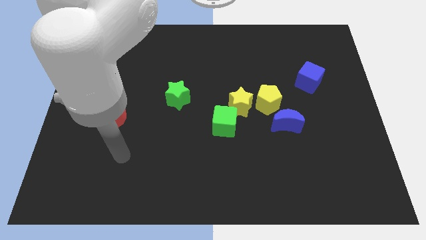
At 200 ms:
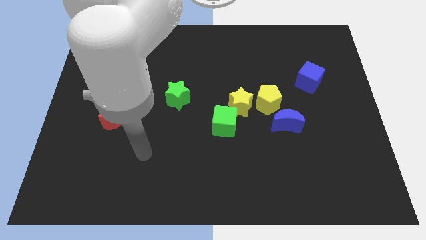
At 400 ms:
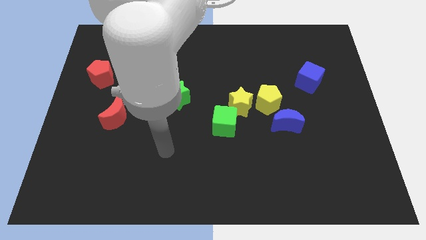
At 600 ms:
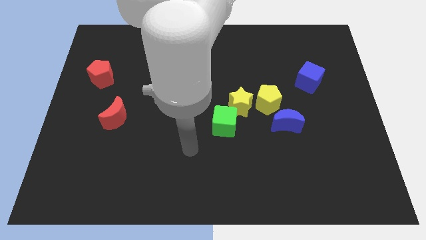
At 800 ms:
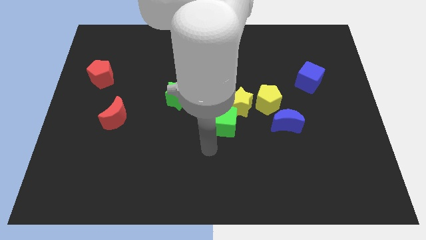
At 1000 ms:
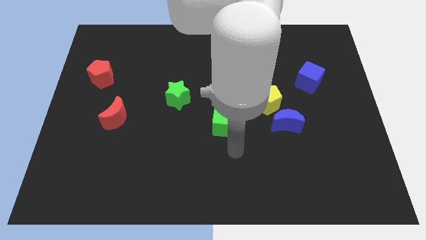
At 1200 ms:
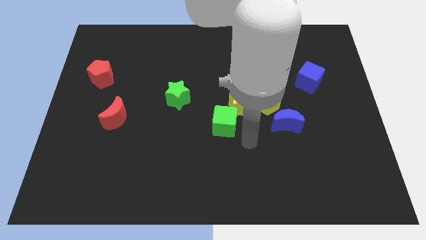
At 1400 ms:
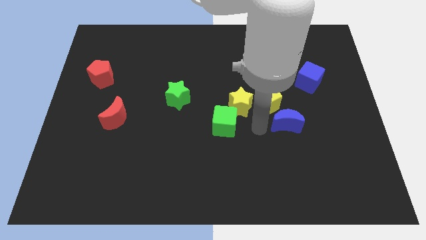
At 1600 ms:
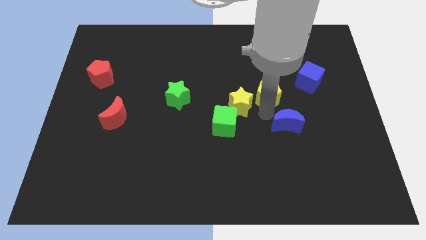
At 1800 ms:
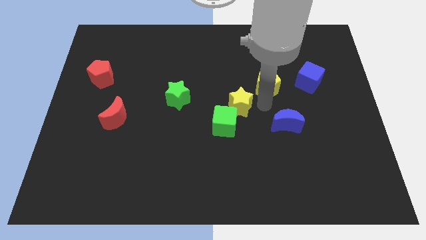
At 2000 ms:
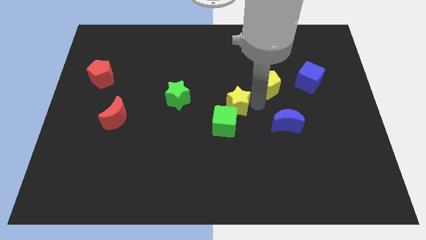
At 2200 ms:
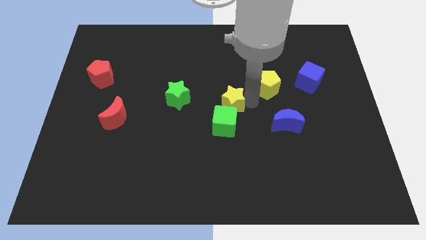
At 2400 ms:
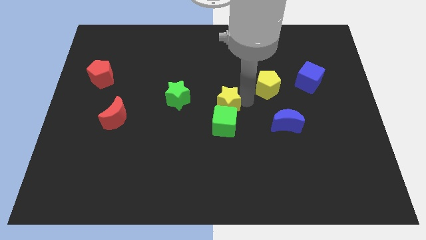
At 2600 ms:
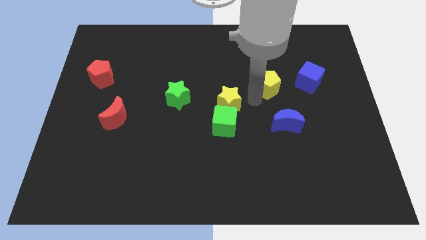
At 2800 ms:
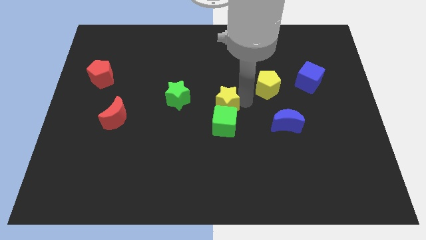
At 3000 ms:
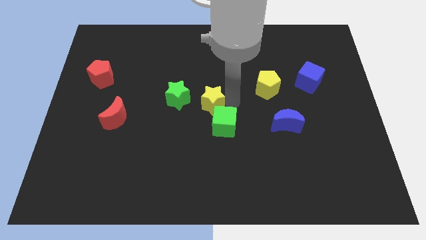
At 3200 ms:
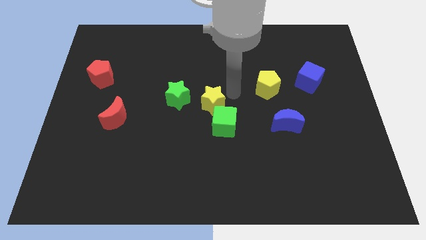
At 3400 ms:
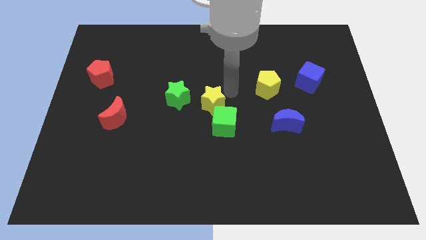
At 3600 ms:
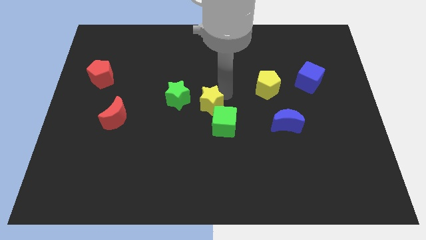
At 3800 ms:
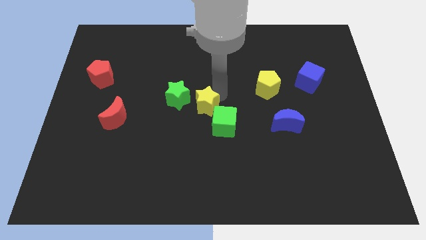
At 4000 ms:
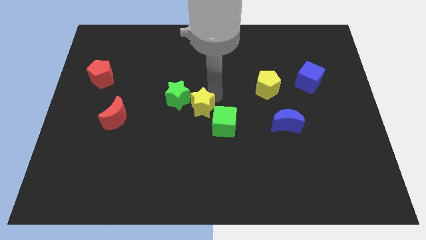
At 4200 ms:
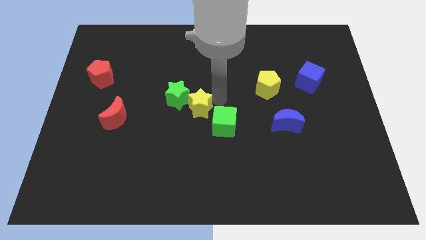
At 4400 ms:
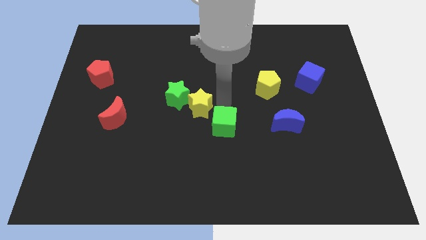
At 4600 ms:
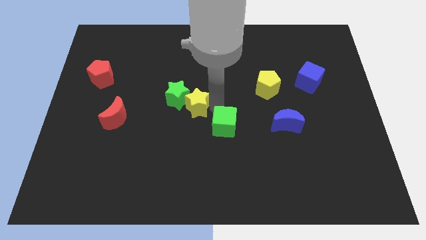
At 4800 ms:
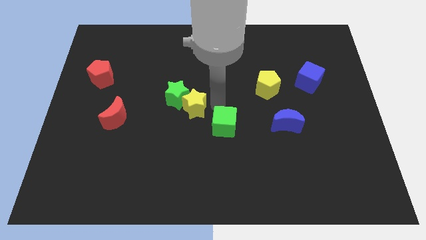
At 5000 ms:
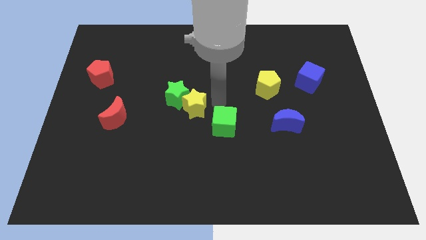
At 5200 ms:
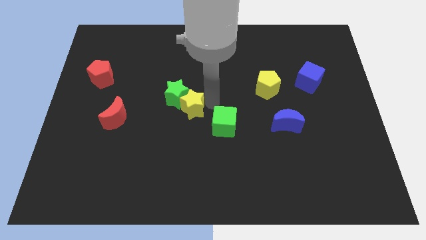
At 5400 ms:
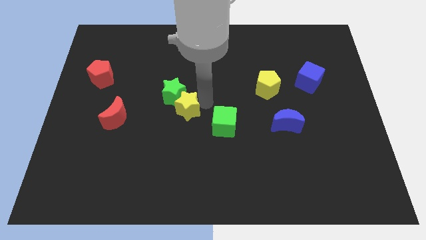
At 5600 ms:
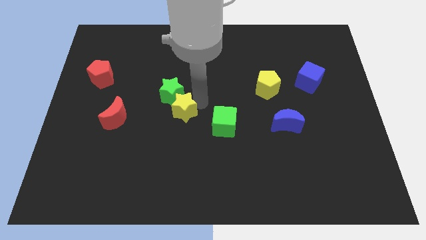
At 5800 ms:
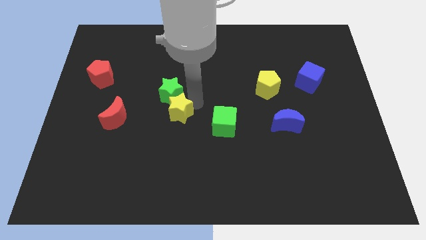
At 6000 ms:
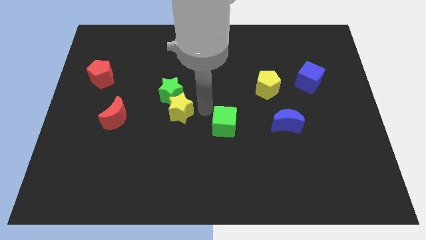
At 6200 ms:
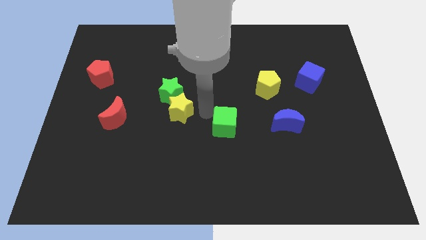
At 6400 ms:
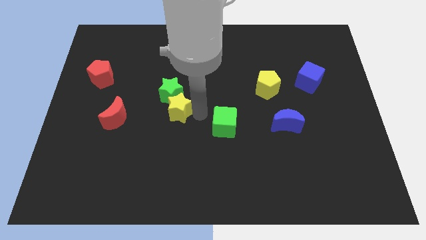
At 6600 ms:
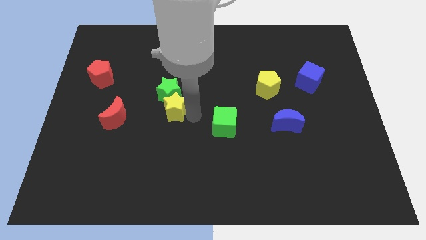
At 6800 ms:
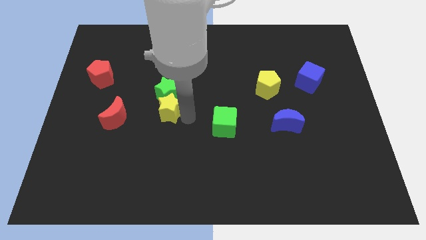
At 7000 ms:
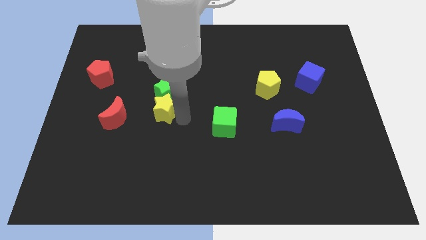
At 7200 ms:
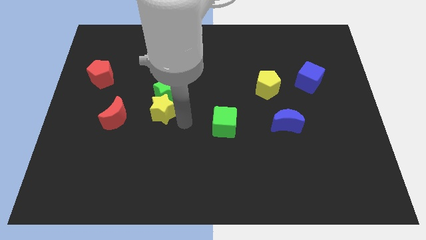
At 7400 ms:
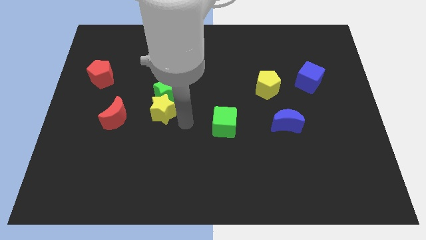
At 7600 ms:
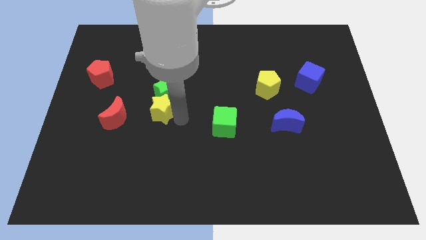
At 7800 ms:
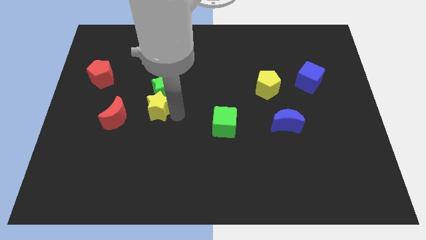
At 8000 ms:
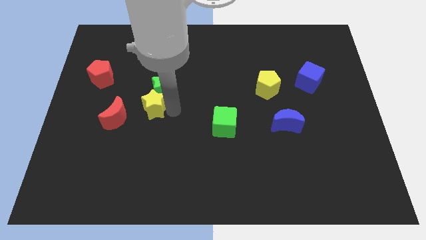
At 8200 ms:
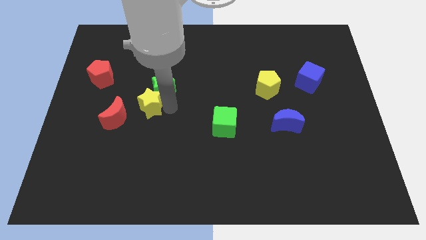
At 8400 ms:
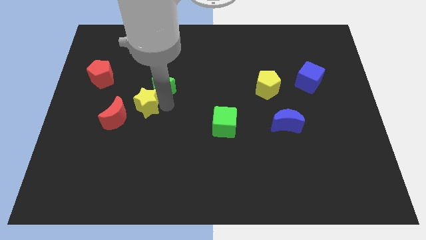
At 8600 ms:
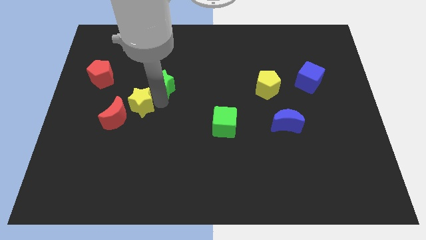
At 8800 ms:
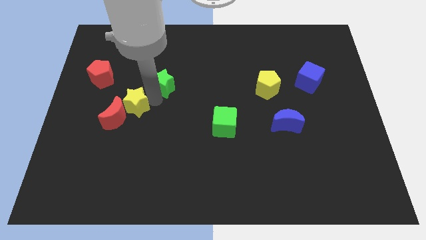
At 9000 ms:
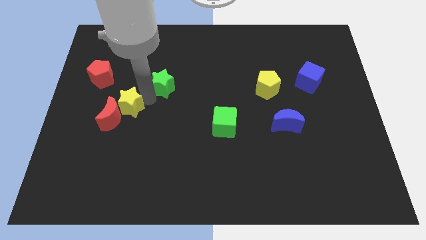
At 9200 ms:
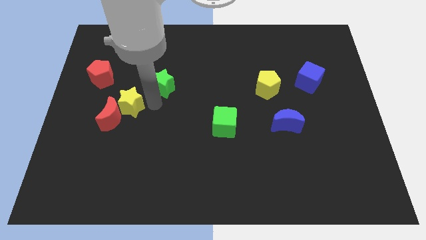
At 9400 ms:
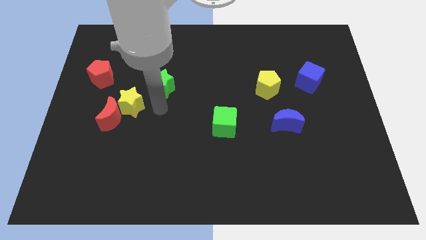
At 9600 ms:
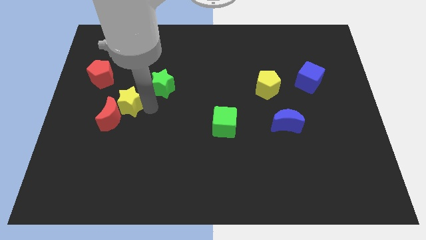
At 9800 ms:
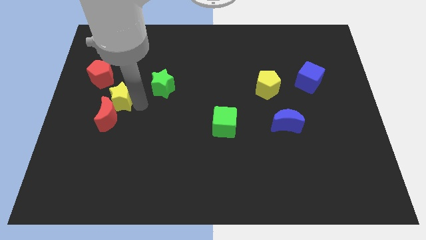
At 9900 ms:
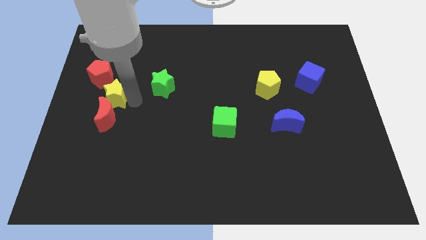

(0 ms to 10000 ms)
slide the yellow star to the bottom of the red pentagon

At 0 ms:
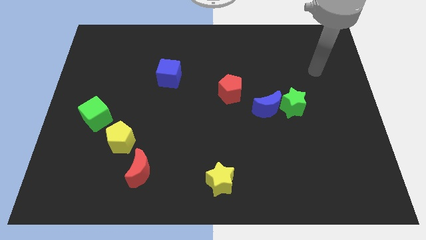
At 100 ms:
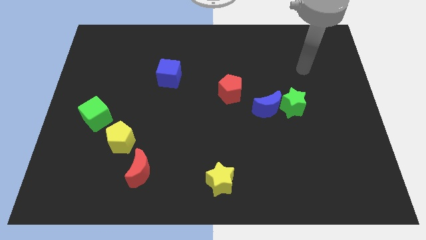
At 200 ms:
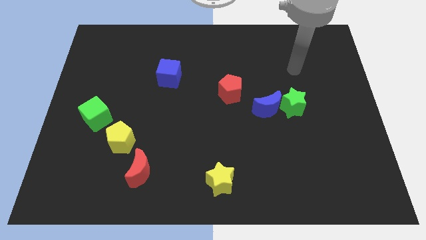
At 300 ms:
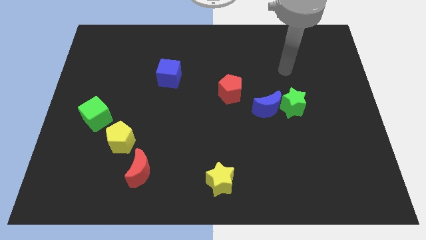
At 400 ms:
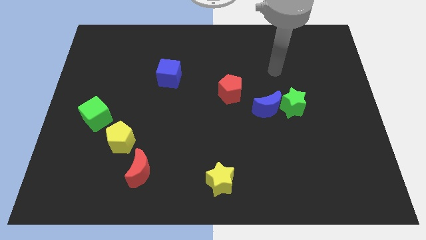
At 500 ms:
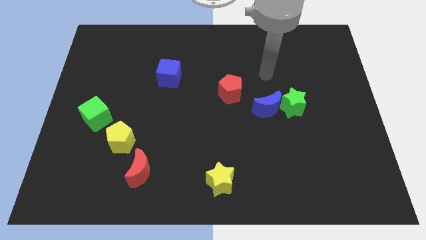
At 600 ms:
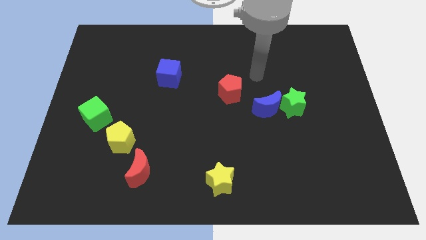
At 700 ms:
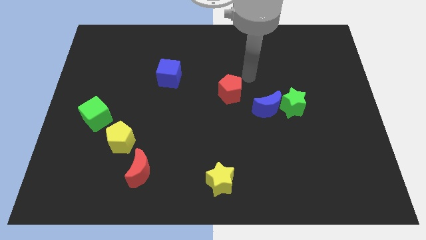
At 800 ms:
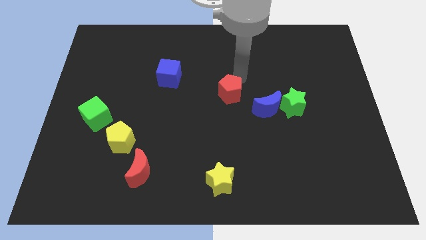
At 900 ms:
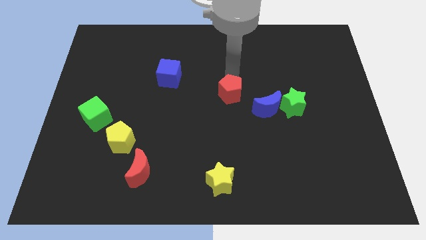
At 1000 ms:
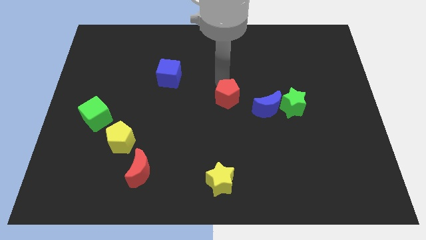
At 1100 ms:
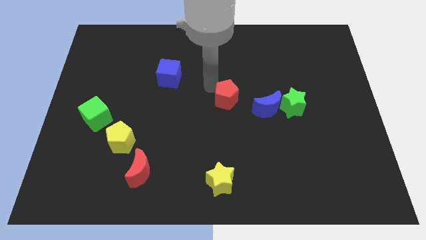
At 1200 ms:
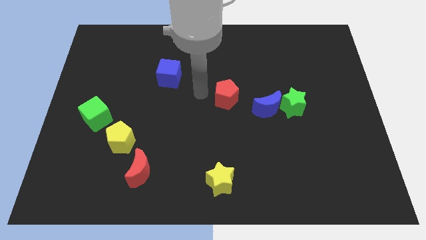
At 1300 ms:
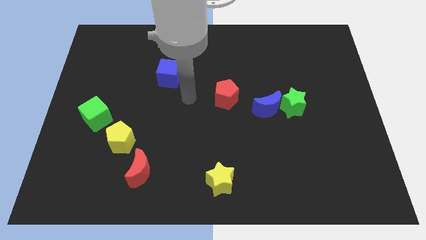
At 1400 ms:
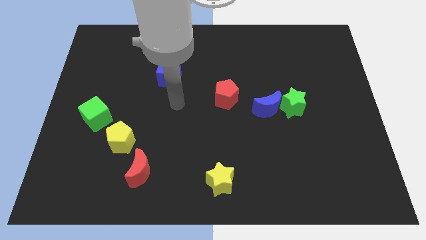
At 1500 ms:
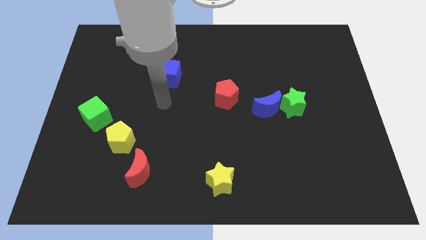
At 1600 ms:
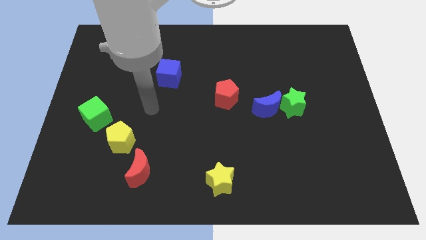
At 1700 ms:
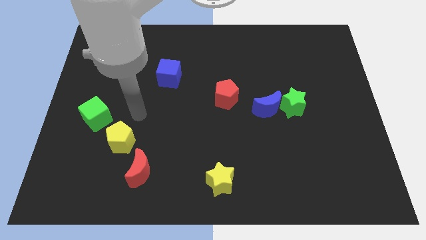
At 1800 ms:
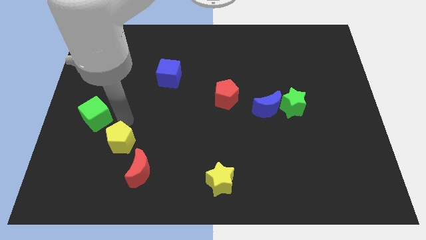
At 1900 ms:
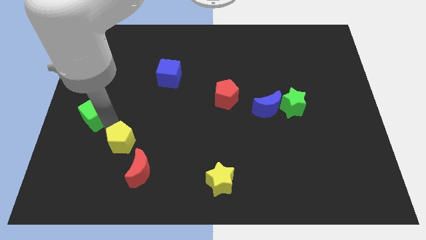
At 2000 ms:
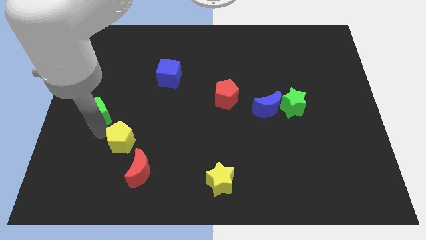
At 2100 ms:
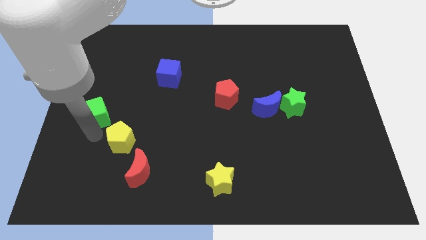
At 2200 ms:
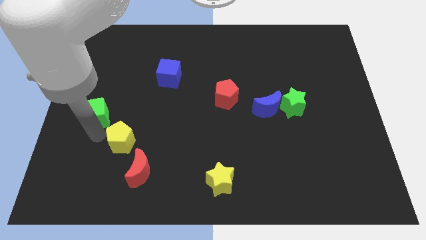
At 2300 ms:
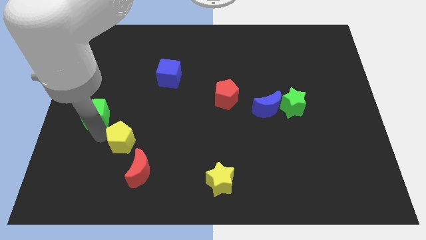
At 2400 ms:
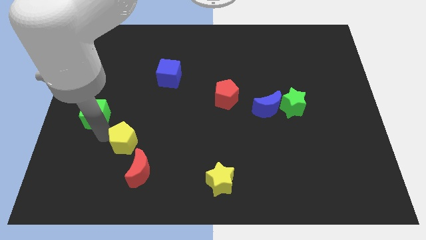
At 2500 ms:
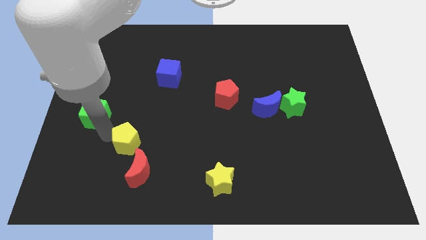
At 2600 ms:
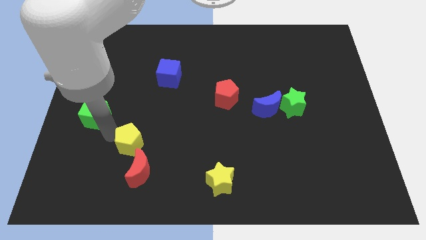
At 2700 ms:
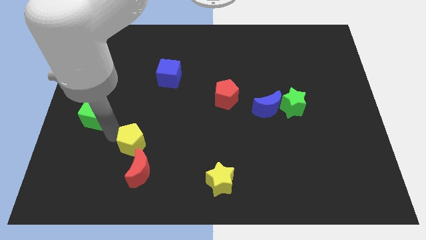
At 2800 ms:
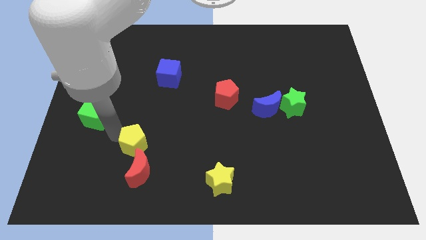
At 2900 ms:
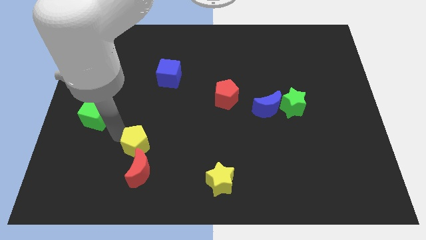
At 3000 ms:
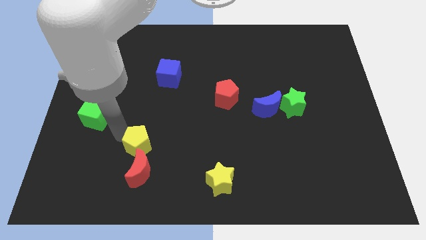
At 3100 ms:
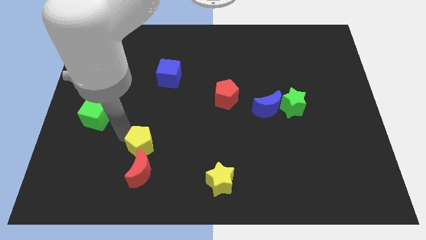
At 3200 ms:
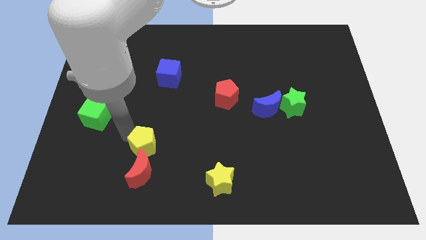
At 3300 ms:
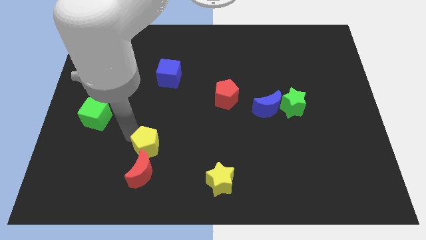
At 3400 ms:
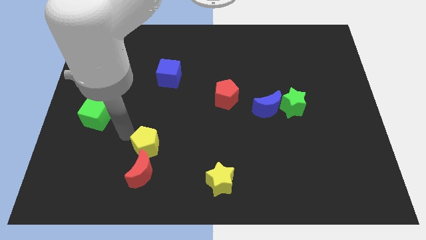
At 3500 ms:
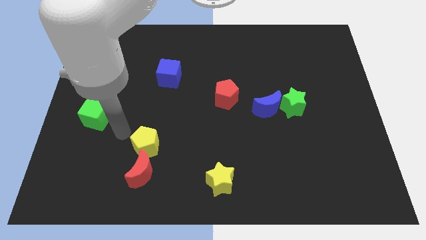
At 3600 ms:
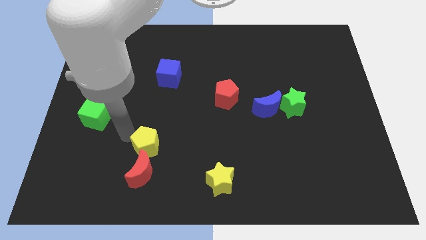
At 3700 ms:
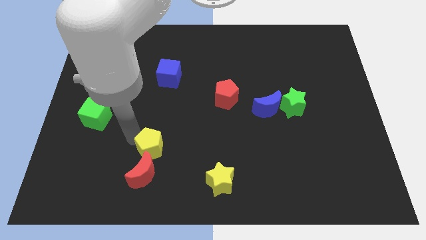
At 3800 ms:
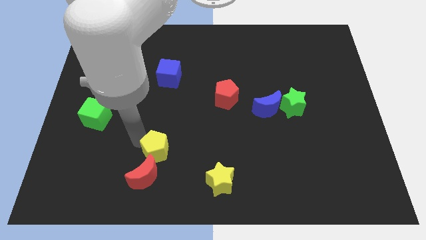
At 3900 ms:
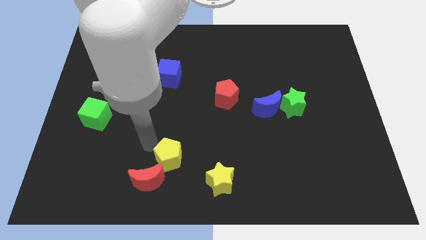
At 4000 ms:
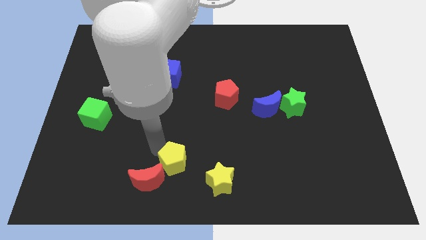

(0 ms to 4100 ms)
slide the yellow pentagon just right of the red moon
